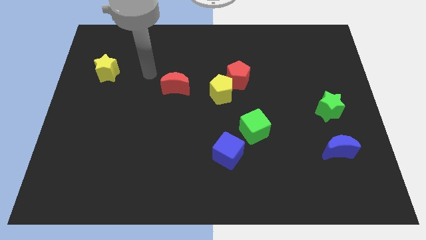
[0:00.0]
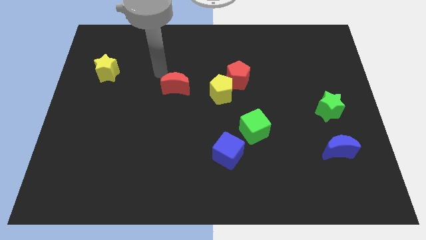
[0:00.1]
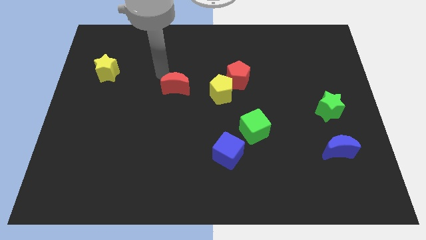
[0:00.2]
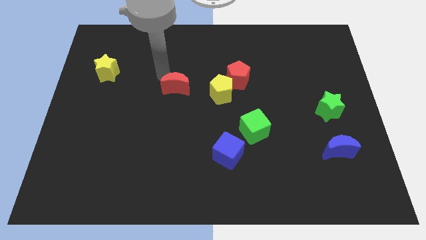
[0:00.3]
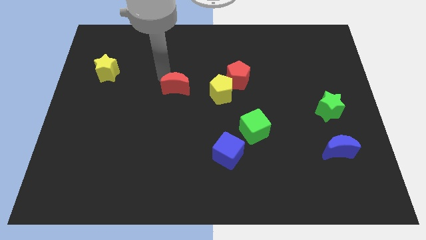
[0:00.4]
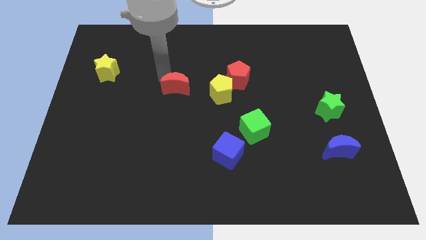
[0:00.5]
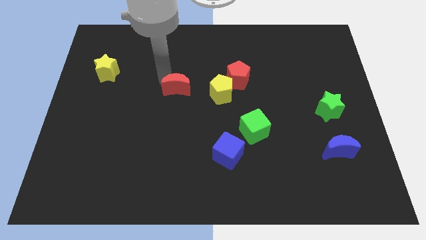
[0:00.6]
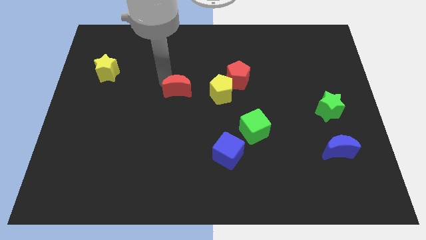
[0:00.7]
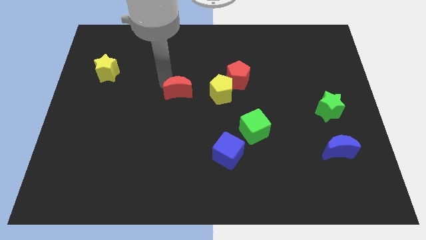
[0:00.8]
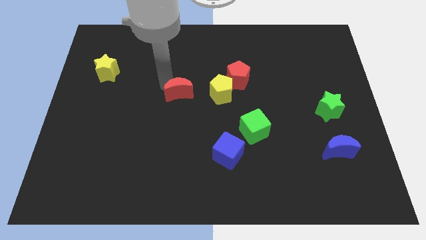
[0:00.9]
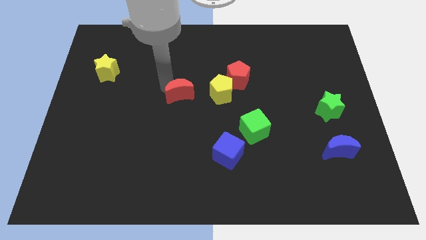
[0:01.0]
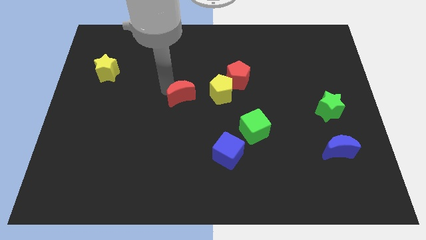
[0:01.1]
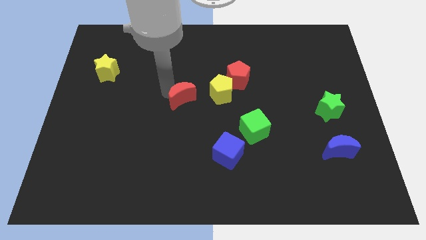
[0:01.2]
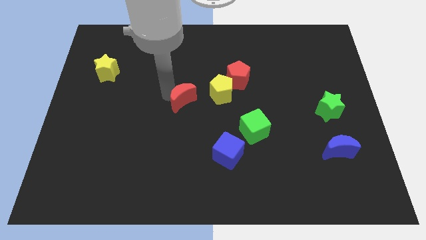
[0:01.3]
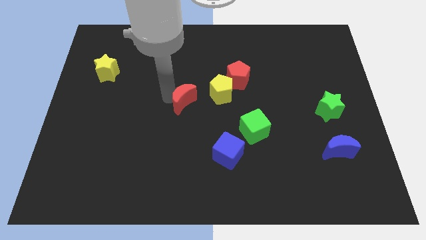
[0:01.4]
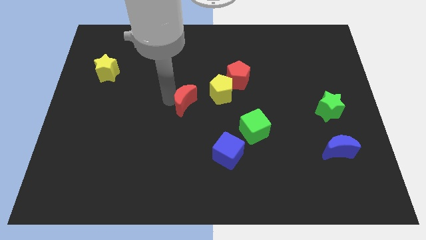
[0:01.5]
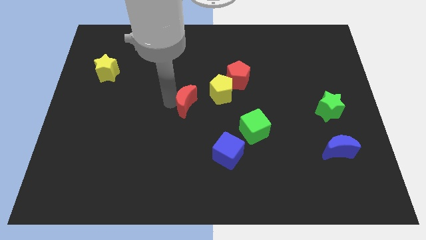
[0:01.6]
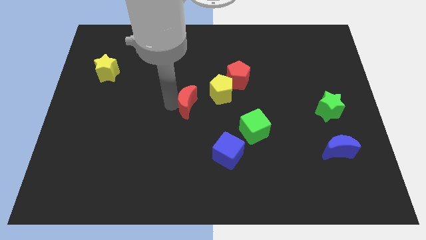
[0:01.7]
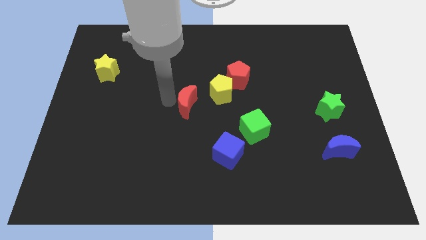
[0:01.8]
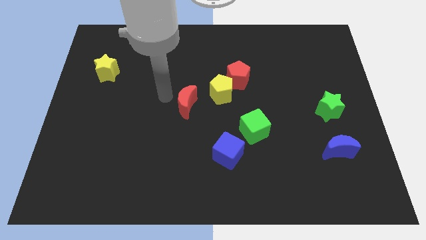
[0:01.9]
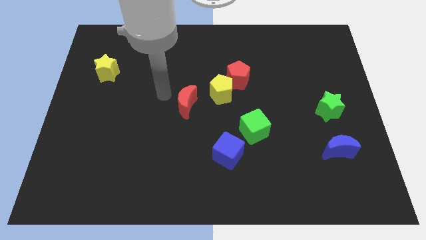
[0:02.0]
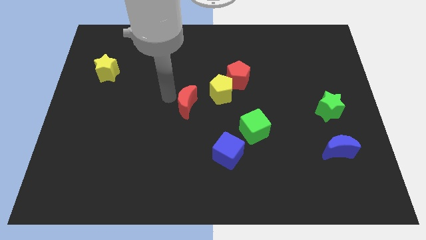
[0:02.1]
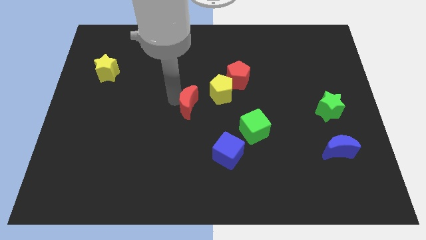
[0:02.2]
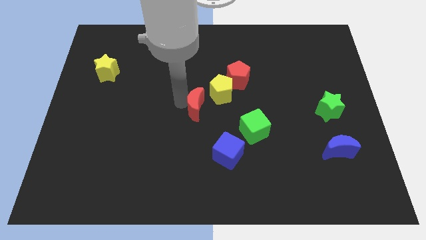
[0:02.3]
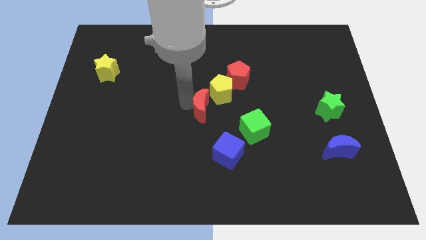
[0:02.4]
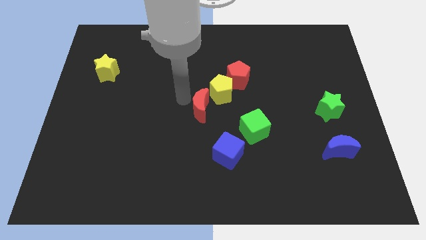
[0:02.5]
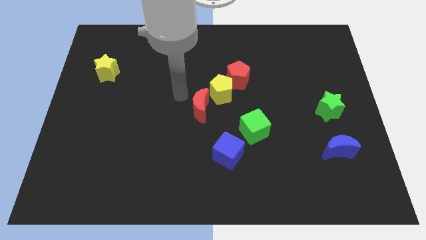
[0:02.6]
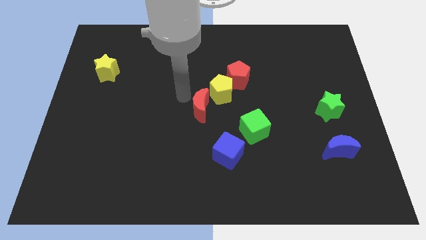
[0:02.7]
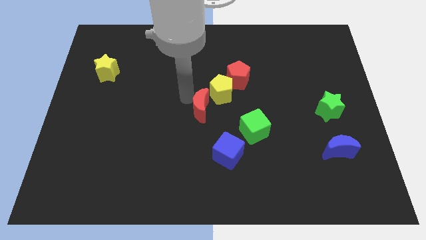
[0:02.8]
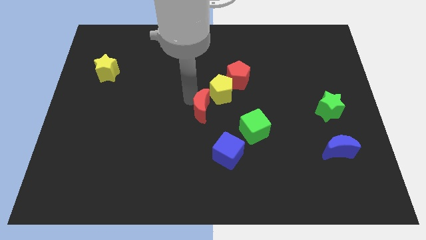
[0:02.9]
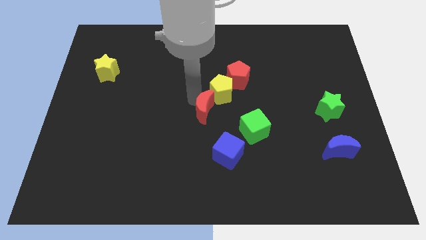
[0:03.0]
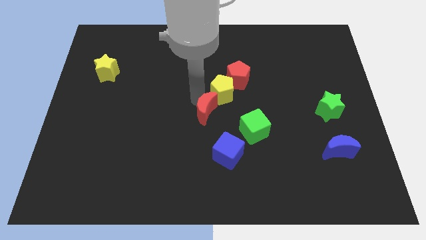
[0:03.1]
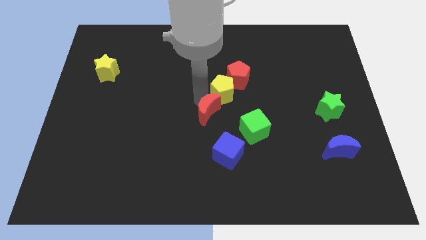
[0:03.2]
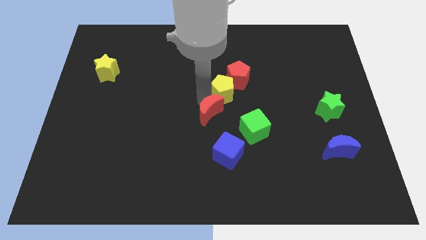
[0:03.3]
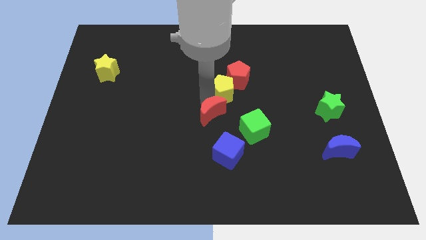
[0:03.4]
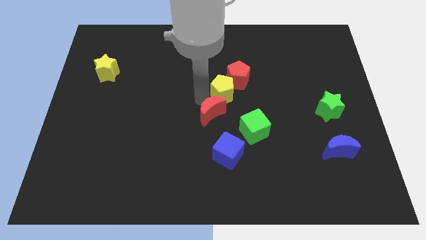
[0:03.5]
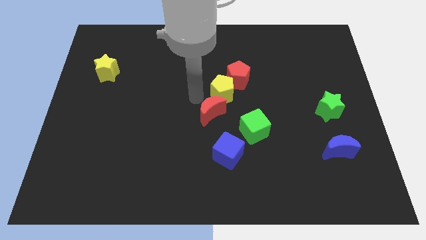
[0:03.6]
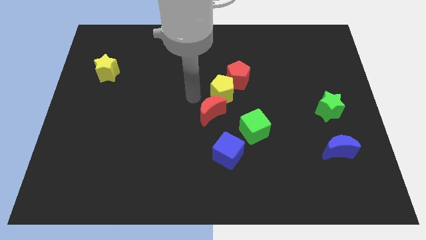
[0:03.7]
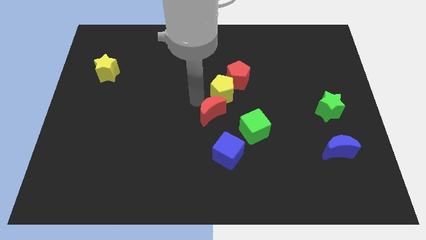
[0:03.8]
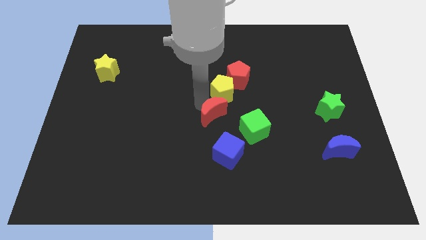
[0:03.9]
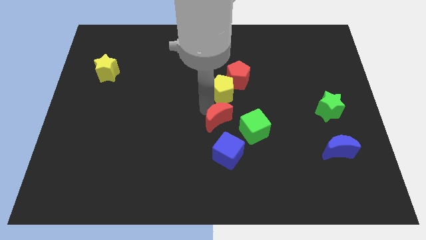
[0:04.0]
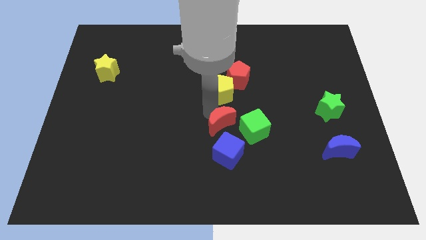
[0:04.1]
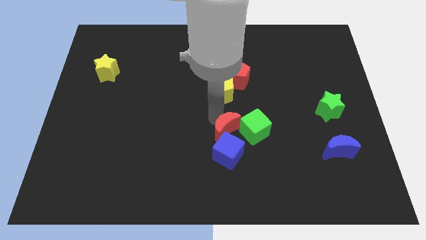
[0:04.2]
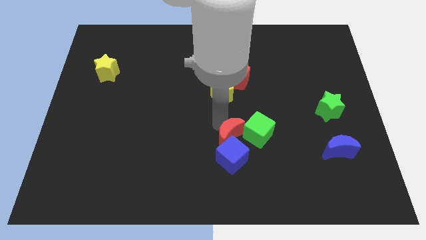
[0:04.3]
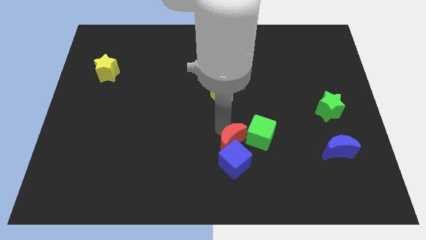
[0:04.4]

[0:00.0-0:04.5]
push the red moon diagonally downwards and to the right

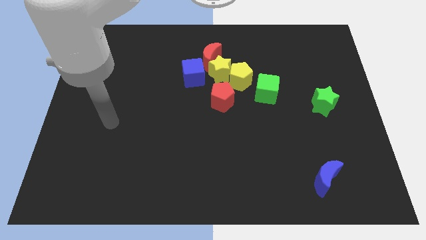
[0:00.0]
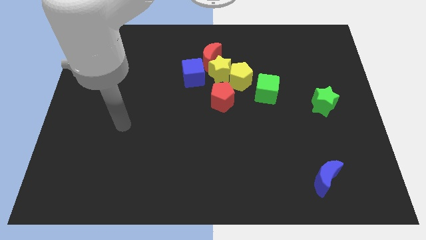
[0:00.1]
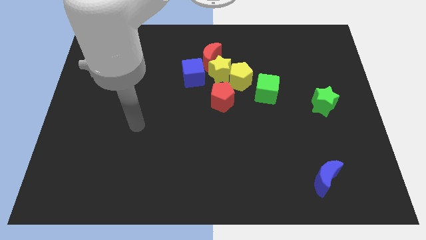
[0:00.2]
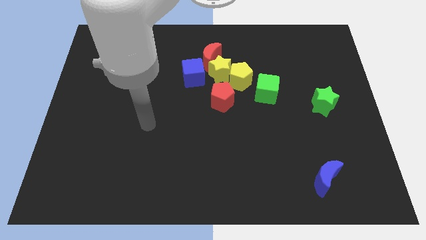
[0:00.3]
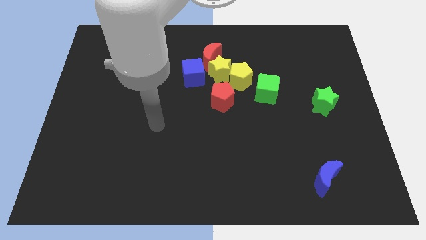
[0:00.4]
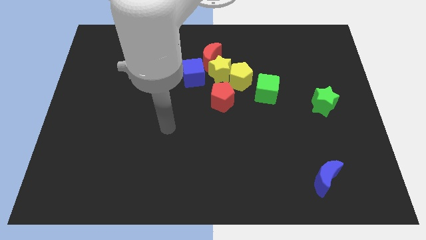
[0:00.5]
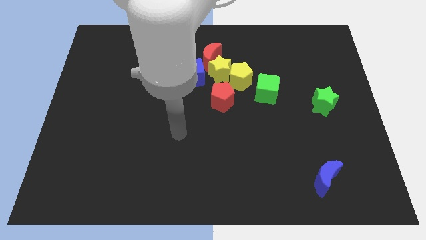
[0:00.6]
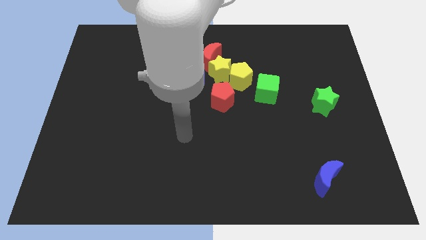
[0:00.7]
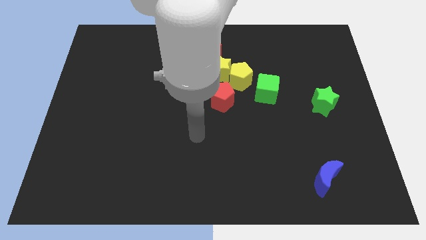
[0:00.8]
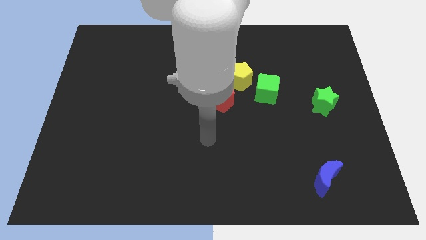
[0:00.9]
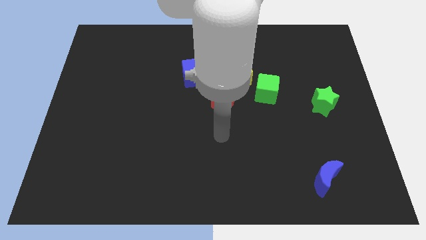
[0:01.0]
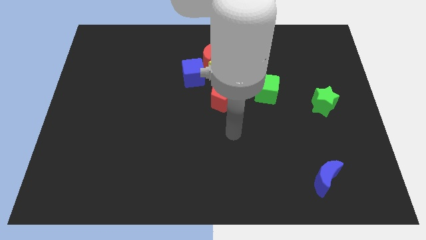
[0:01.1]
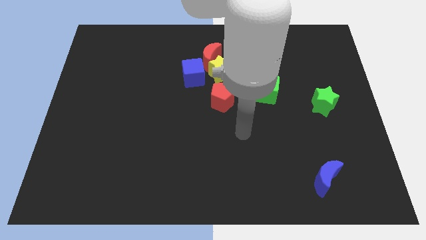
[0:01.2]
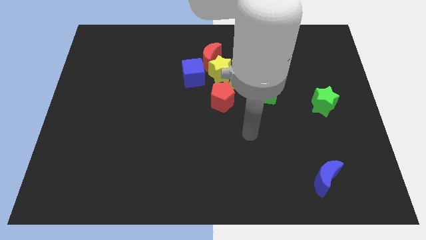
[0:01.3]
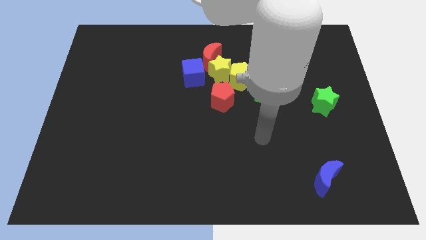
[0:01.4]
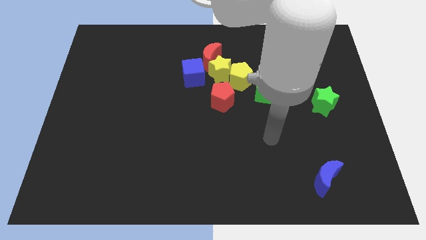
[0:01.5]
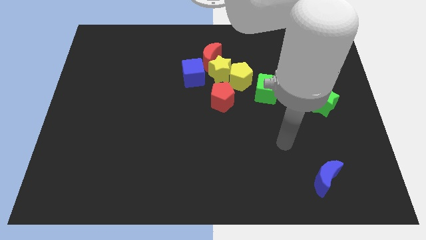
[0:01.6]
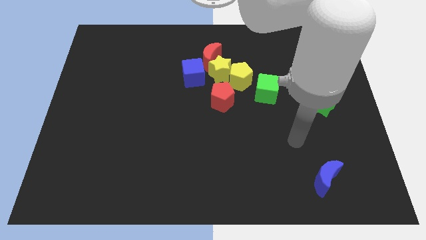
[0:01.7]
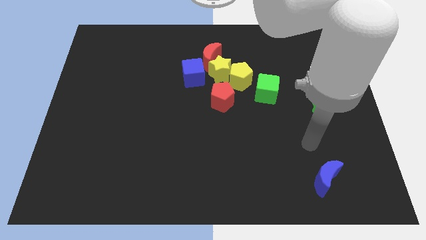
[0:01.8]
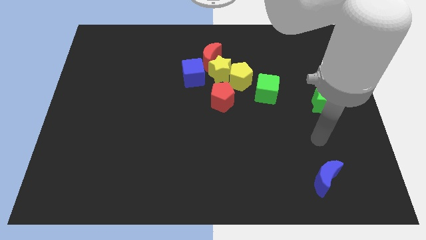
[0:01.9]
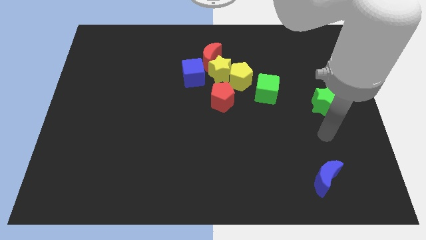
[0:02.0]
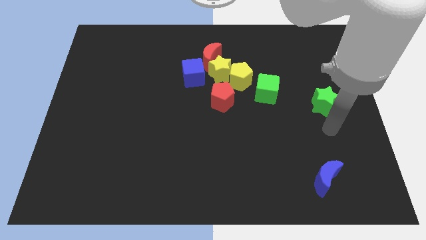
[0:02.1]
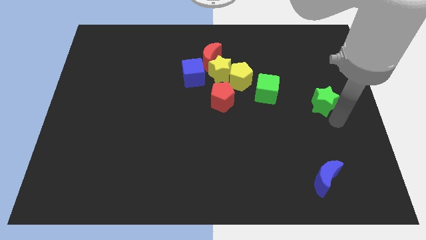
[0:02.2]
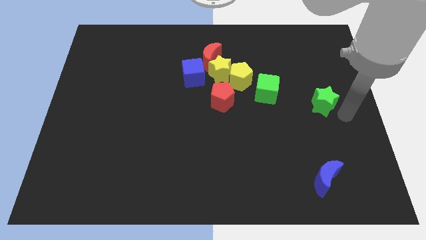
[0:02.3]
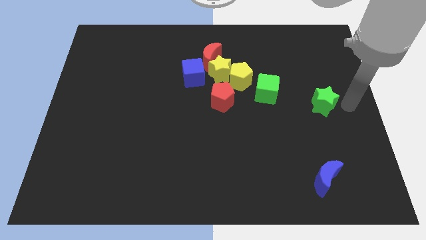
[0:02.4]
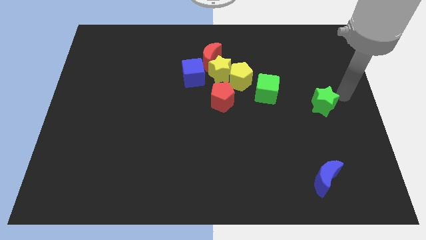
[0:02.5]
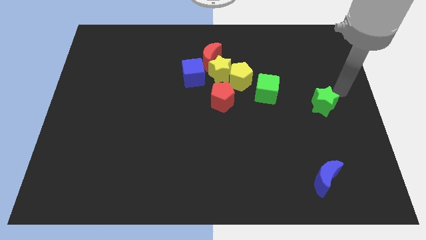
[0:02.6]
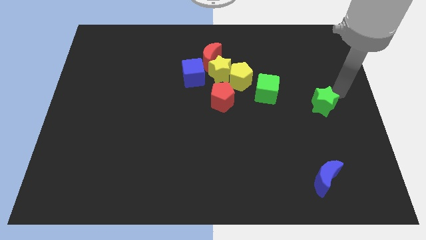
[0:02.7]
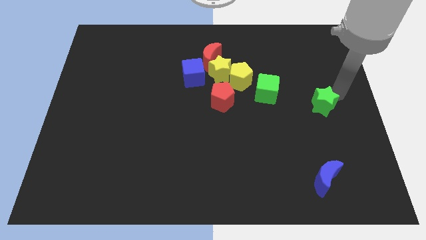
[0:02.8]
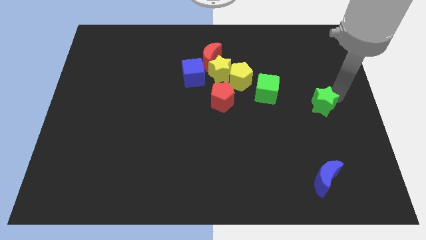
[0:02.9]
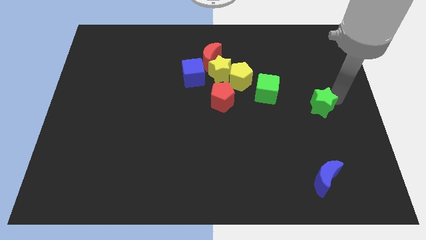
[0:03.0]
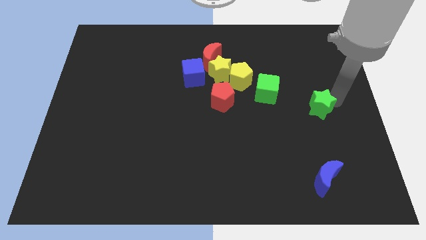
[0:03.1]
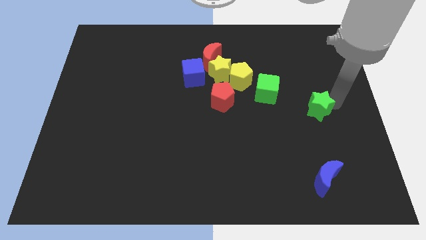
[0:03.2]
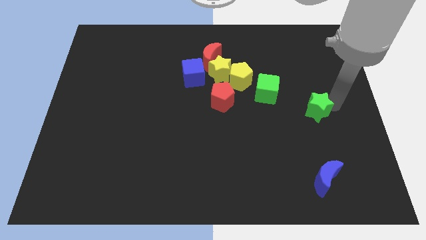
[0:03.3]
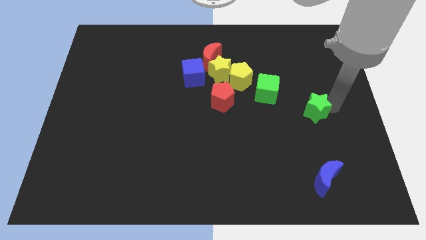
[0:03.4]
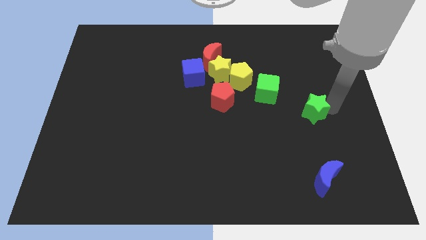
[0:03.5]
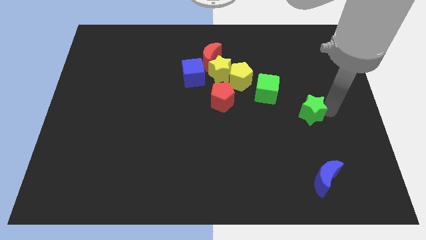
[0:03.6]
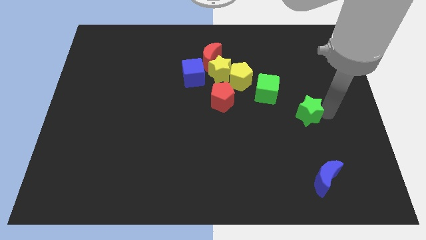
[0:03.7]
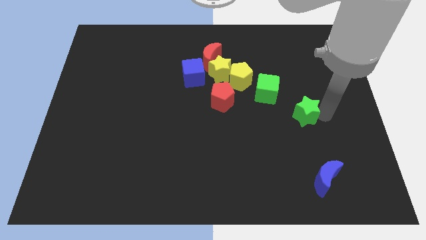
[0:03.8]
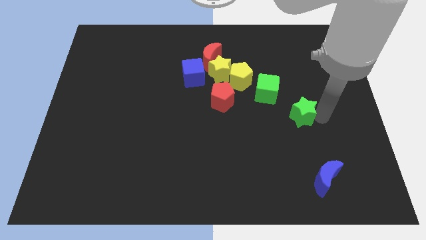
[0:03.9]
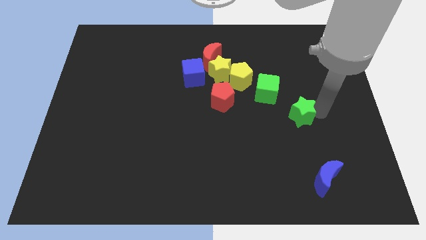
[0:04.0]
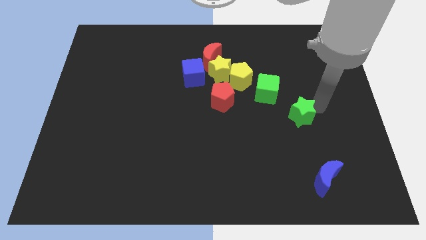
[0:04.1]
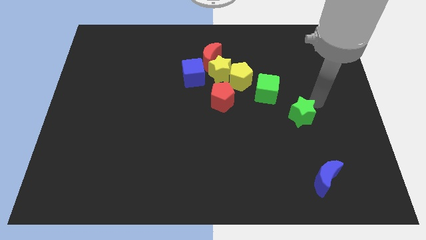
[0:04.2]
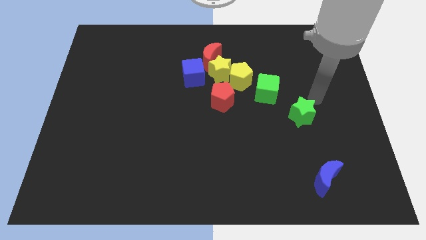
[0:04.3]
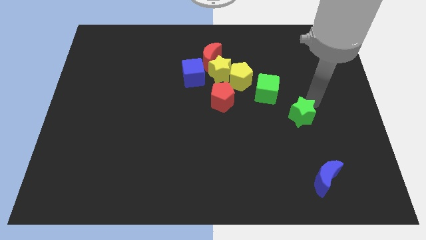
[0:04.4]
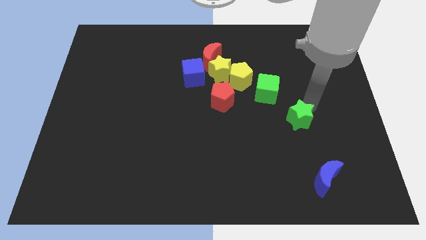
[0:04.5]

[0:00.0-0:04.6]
move the green star downwards and then left a little
